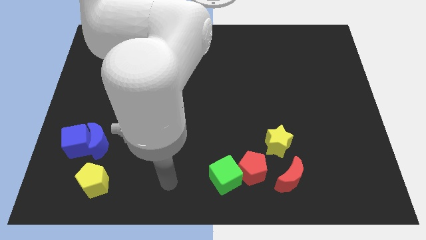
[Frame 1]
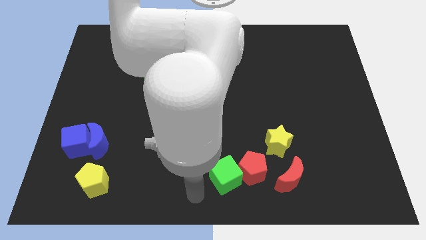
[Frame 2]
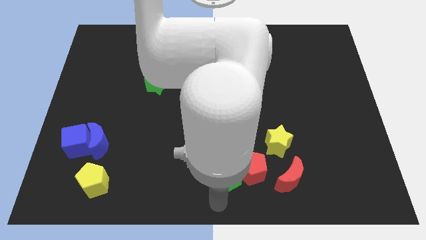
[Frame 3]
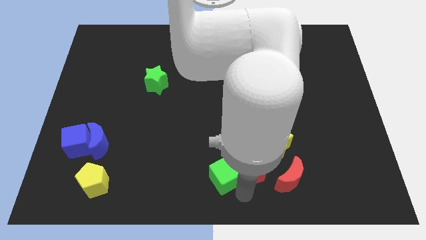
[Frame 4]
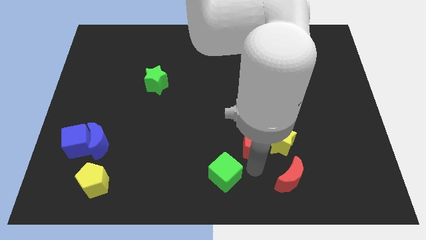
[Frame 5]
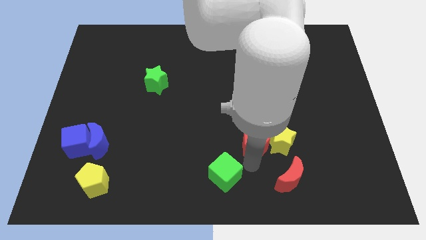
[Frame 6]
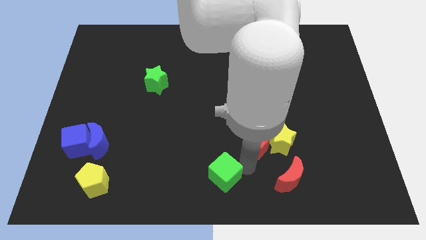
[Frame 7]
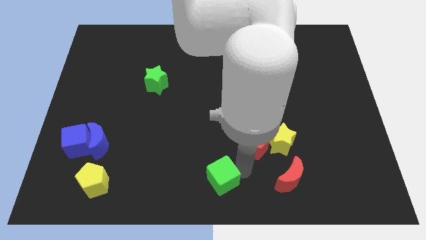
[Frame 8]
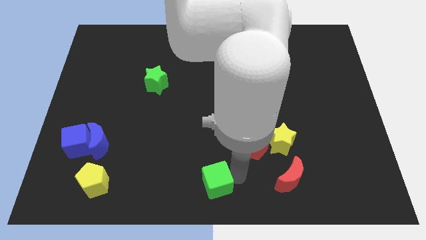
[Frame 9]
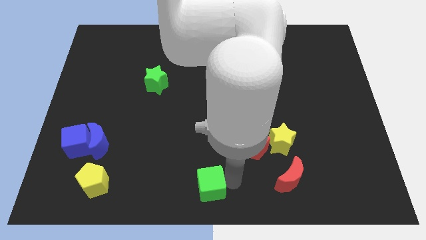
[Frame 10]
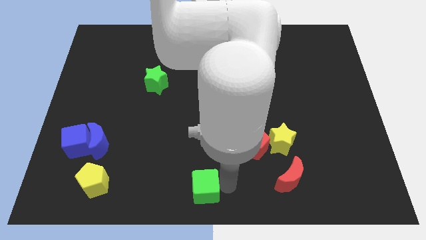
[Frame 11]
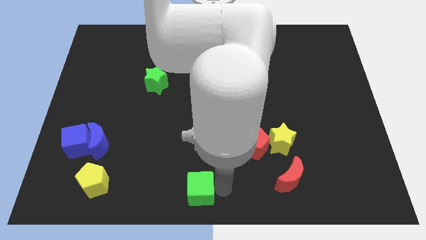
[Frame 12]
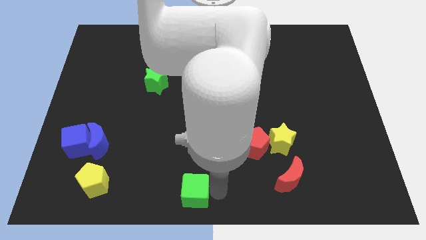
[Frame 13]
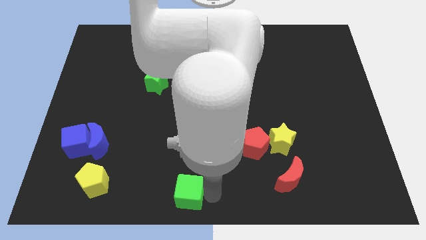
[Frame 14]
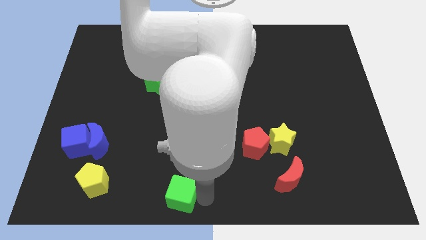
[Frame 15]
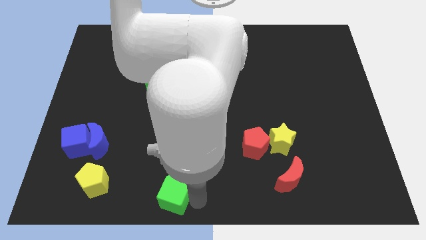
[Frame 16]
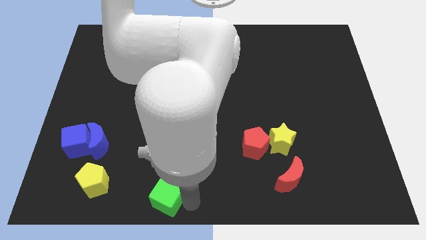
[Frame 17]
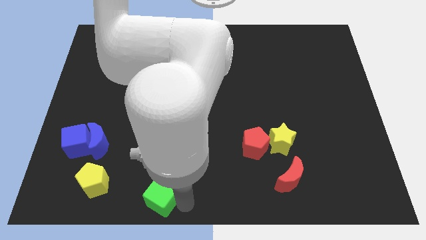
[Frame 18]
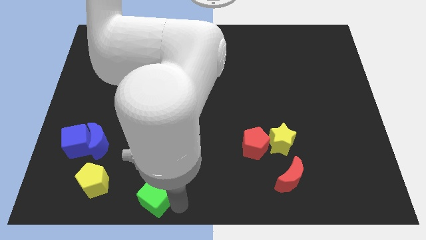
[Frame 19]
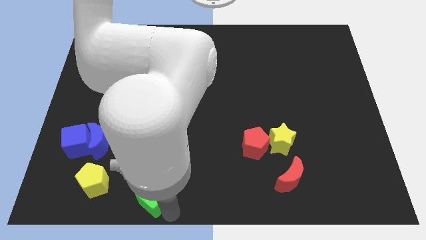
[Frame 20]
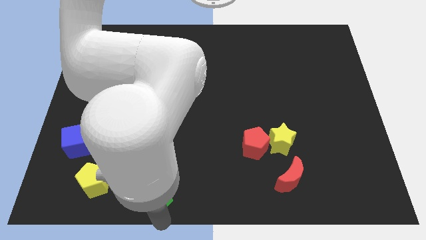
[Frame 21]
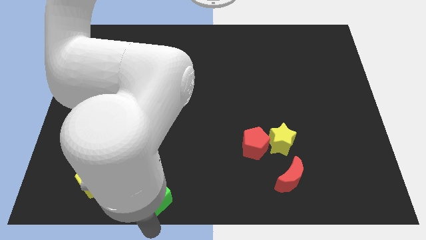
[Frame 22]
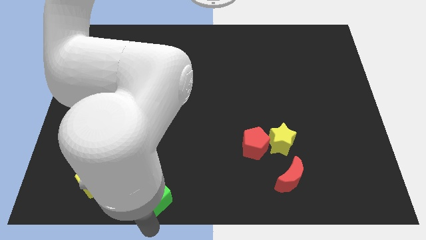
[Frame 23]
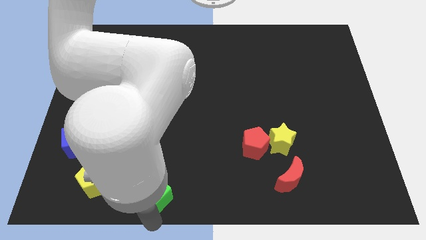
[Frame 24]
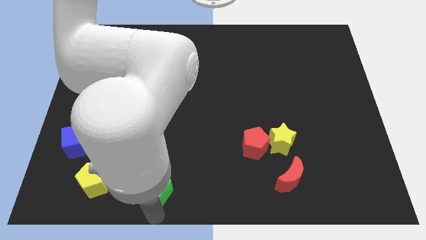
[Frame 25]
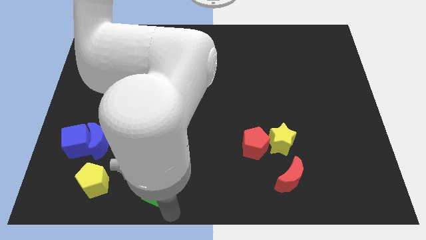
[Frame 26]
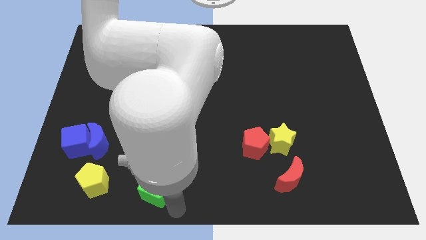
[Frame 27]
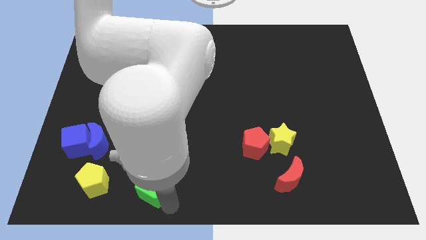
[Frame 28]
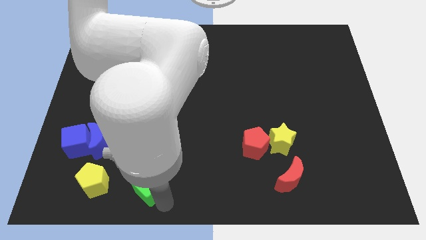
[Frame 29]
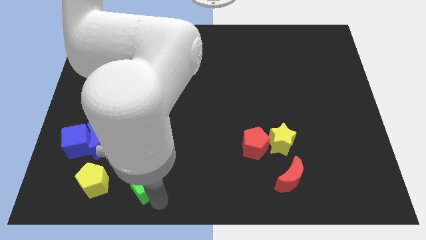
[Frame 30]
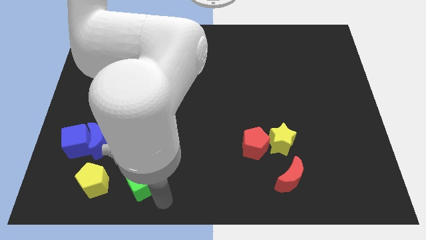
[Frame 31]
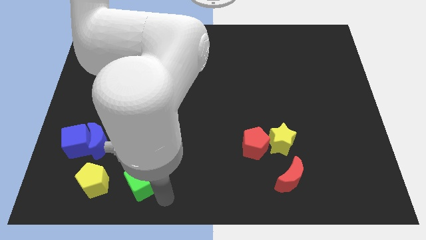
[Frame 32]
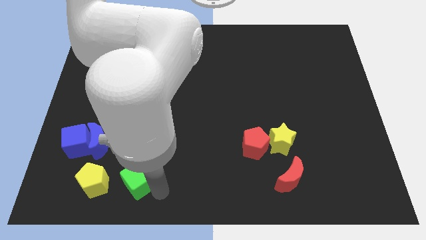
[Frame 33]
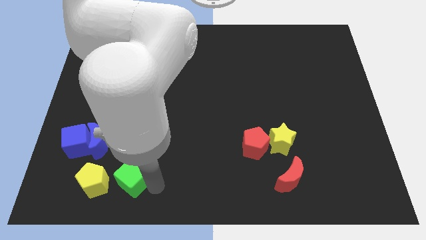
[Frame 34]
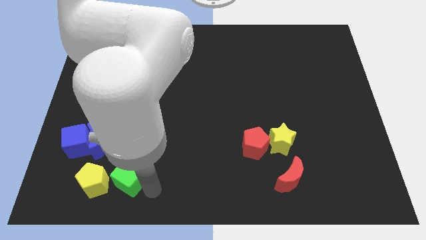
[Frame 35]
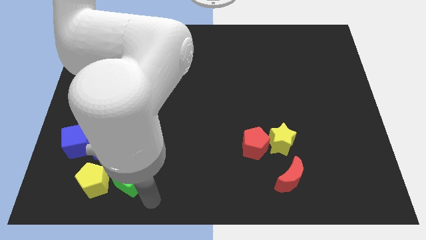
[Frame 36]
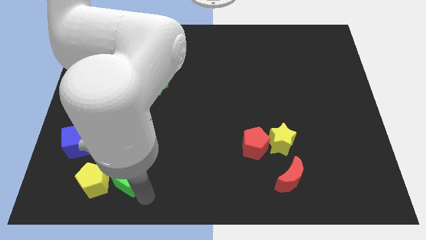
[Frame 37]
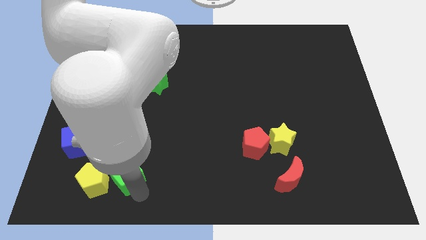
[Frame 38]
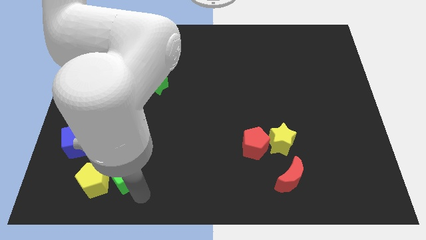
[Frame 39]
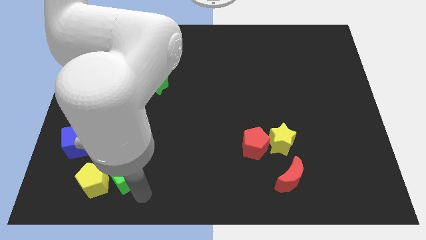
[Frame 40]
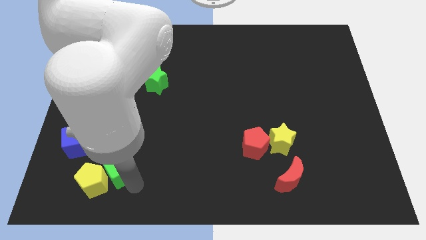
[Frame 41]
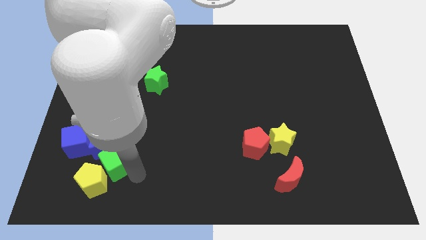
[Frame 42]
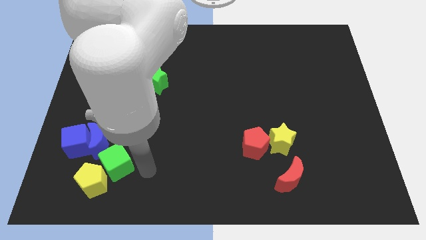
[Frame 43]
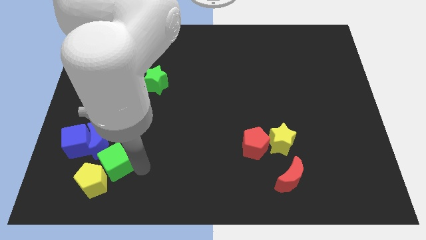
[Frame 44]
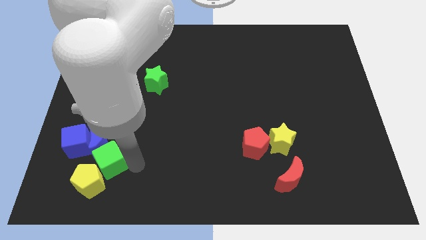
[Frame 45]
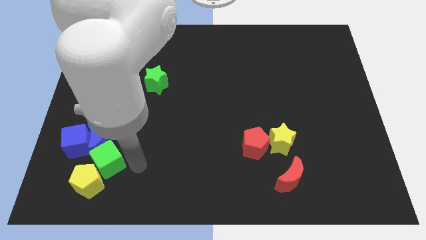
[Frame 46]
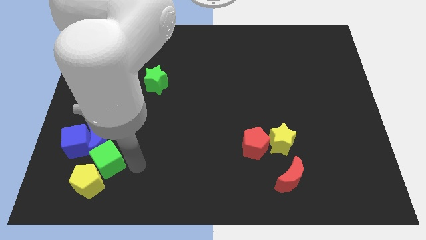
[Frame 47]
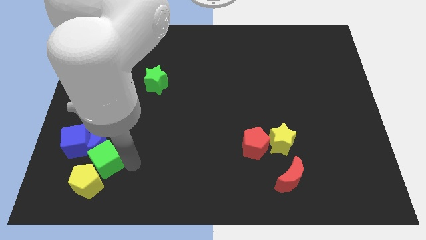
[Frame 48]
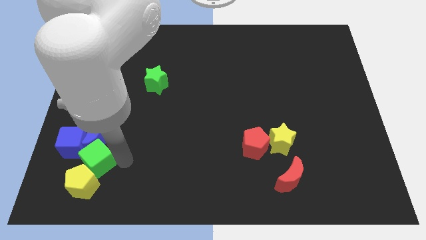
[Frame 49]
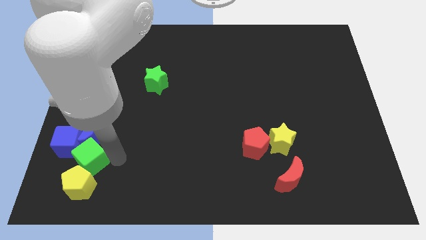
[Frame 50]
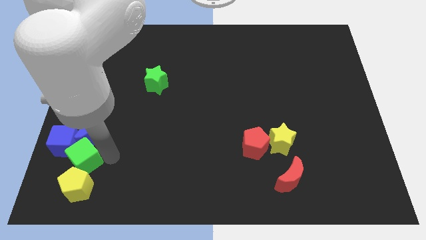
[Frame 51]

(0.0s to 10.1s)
push the green cube to the blue cube

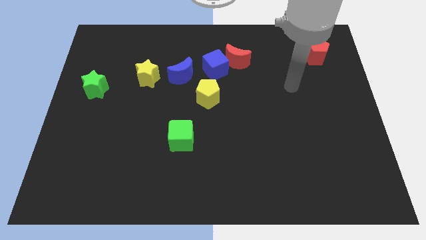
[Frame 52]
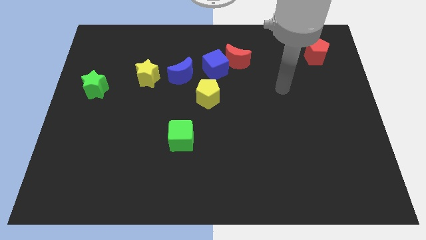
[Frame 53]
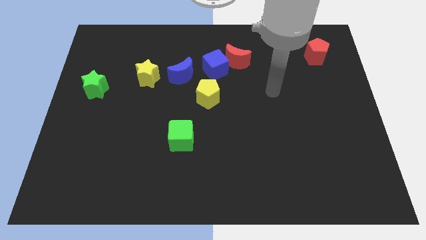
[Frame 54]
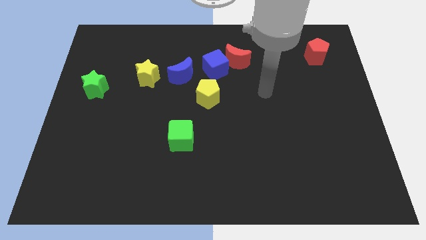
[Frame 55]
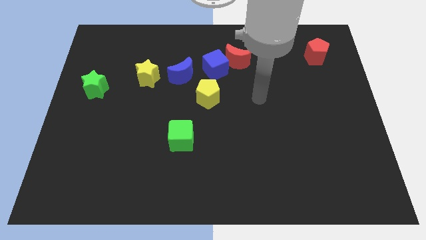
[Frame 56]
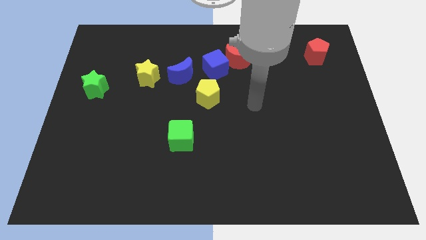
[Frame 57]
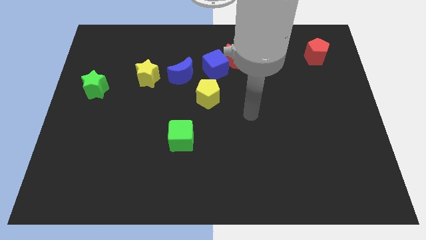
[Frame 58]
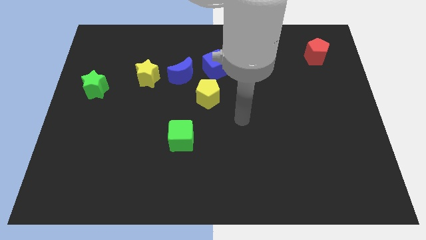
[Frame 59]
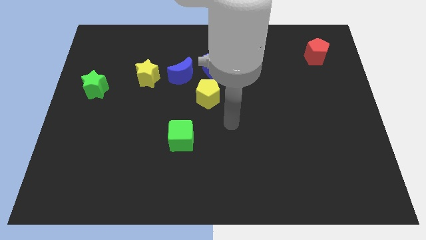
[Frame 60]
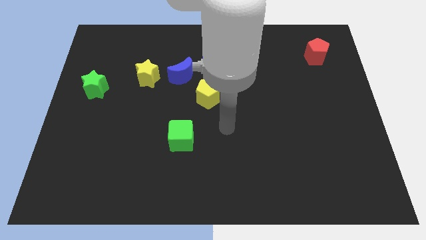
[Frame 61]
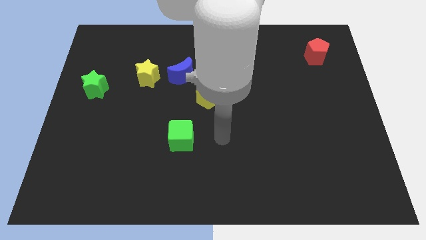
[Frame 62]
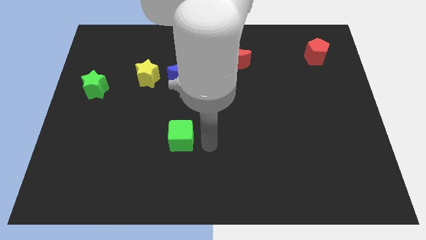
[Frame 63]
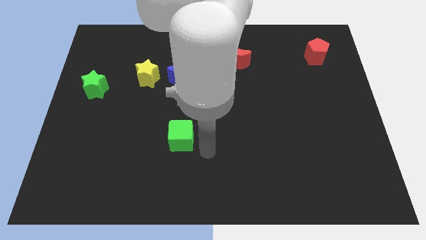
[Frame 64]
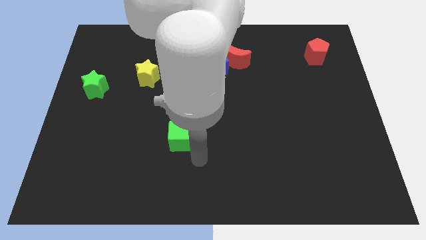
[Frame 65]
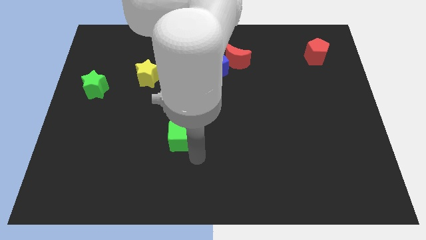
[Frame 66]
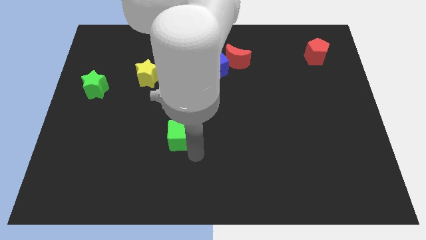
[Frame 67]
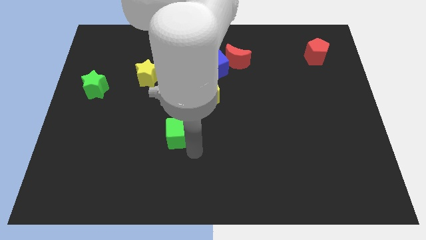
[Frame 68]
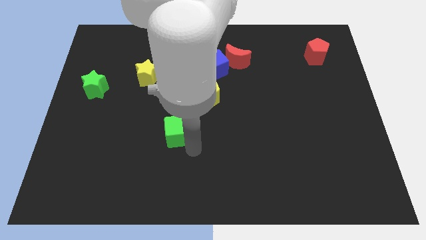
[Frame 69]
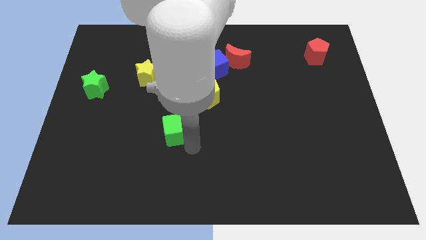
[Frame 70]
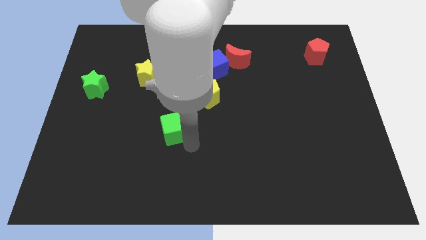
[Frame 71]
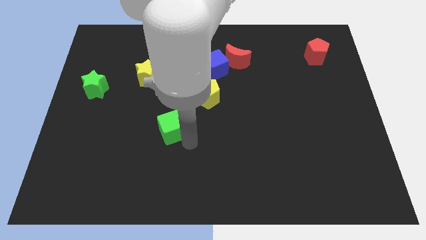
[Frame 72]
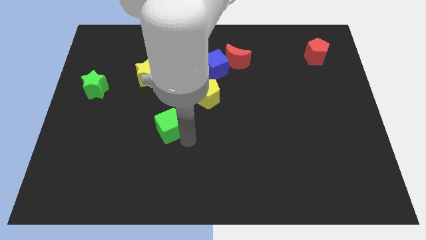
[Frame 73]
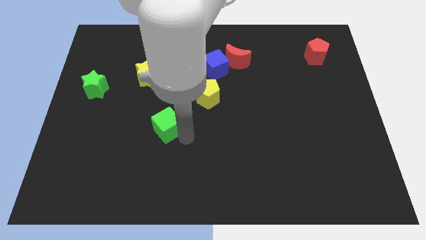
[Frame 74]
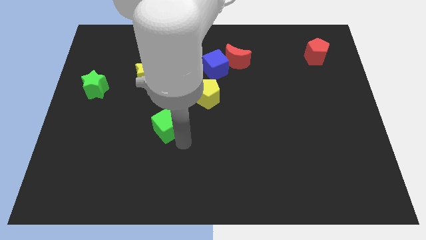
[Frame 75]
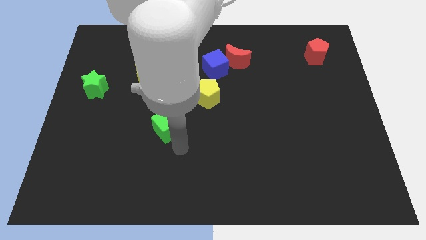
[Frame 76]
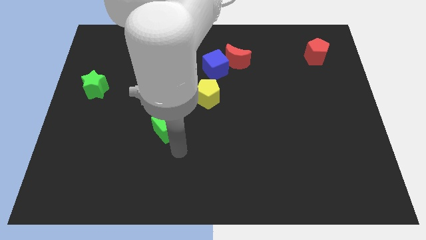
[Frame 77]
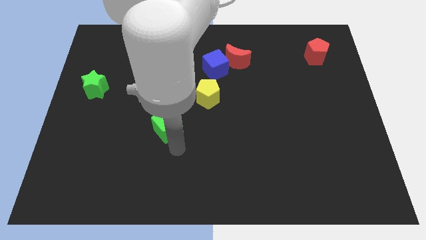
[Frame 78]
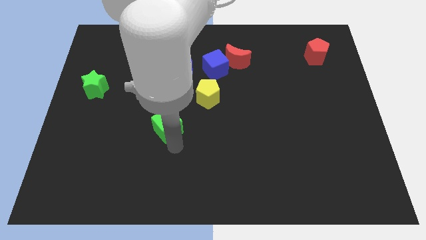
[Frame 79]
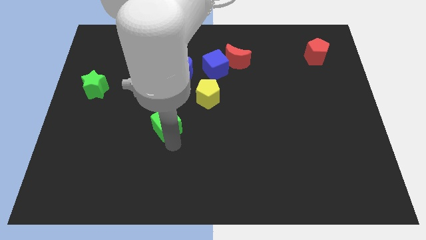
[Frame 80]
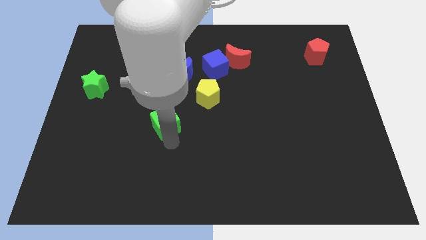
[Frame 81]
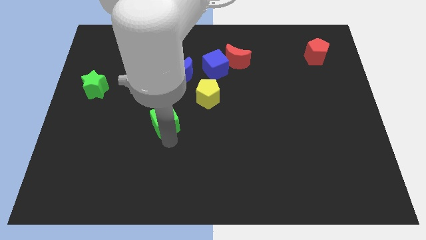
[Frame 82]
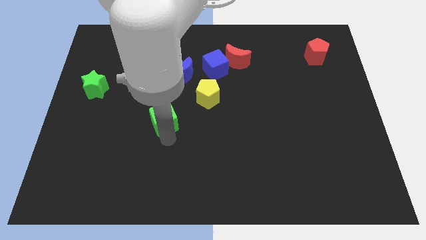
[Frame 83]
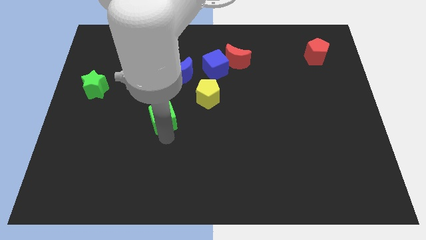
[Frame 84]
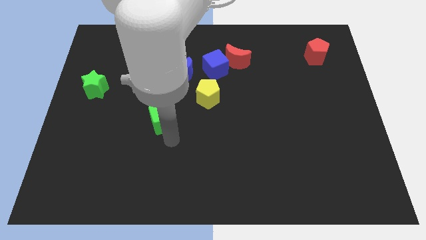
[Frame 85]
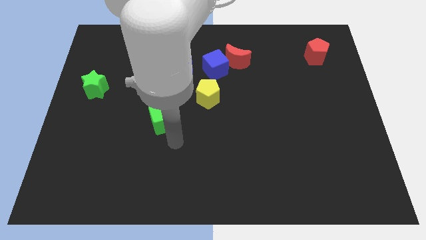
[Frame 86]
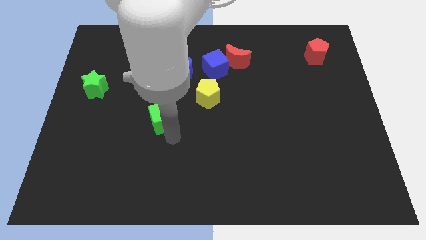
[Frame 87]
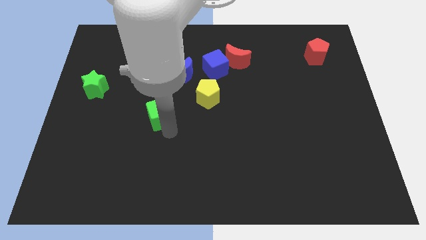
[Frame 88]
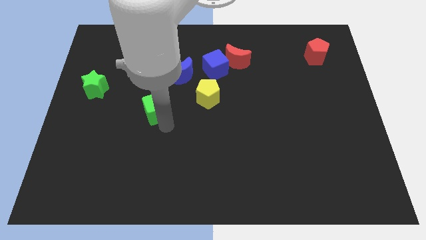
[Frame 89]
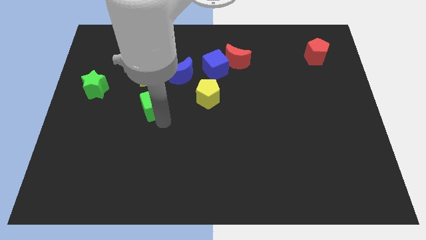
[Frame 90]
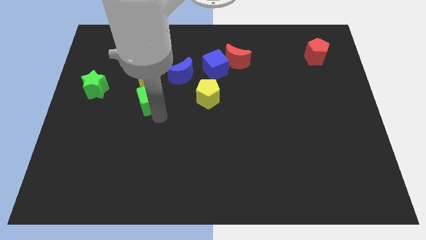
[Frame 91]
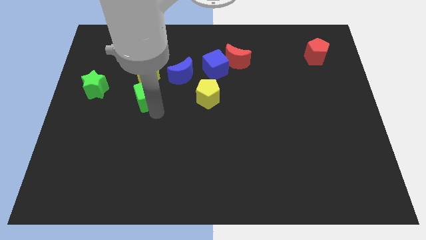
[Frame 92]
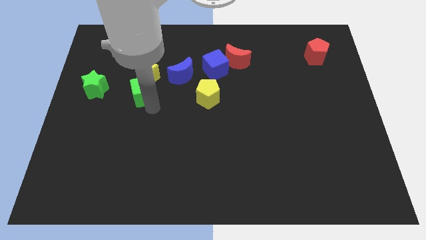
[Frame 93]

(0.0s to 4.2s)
move the green cube towards the yellow star
